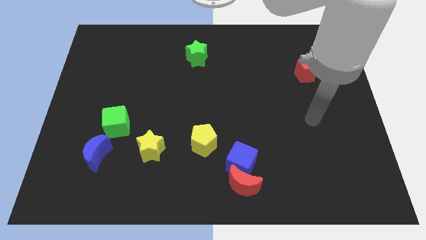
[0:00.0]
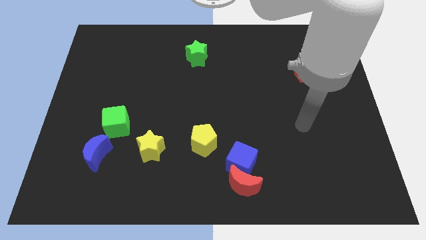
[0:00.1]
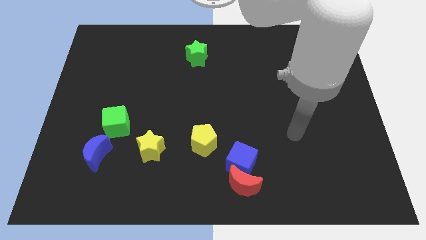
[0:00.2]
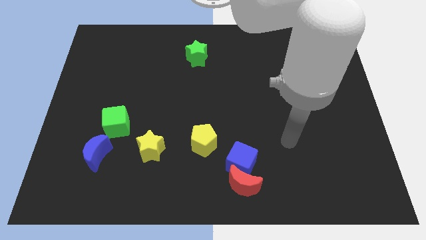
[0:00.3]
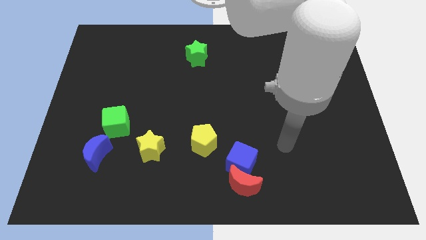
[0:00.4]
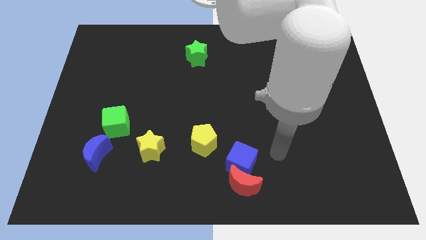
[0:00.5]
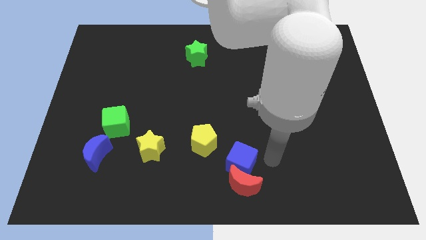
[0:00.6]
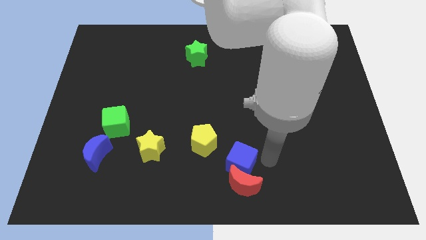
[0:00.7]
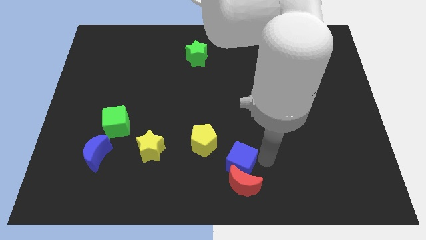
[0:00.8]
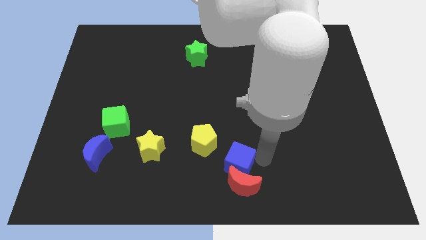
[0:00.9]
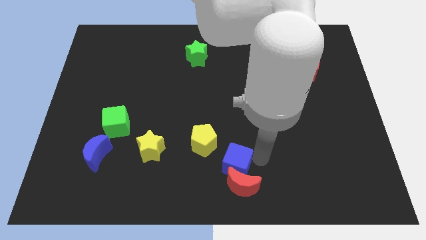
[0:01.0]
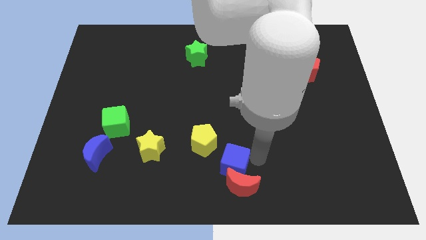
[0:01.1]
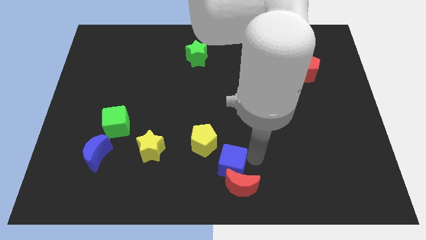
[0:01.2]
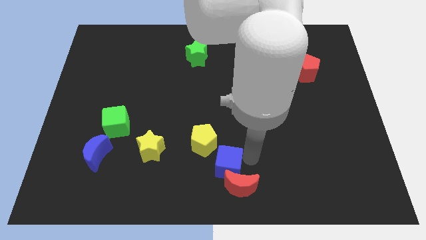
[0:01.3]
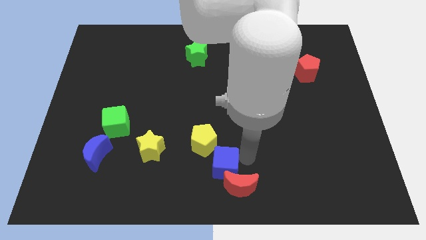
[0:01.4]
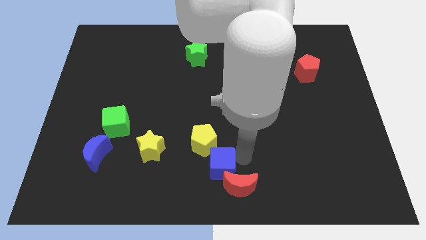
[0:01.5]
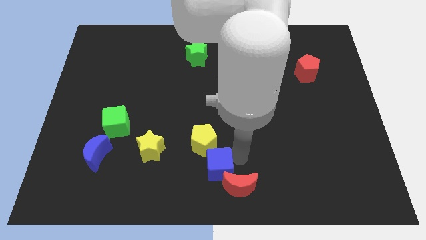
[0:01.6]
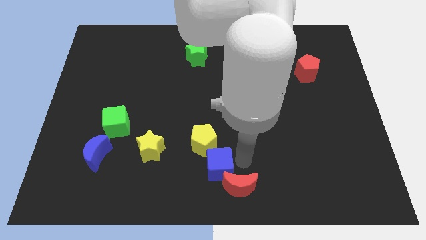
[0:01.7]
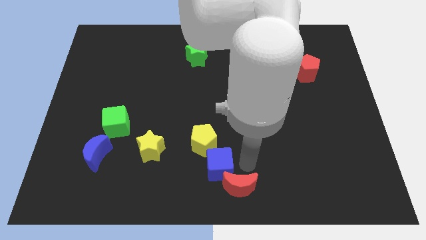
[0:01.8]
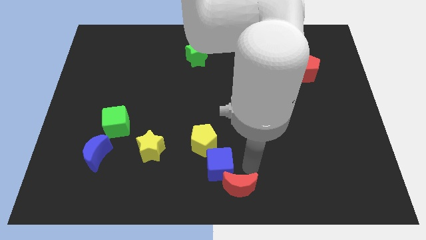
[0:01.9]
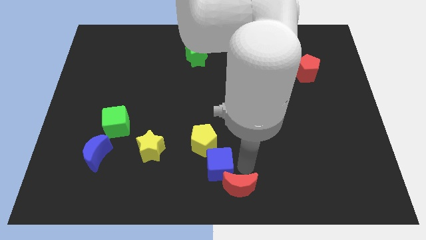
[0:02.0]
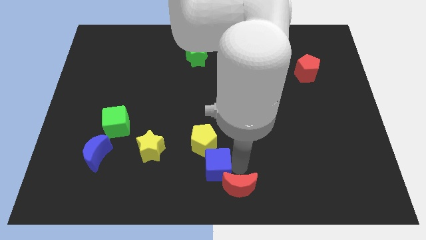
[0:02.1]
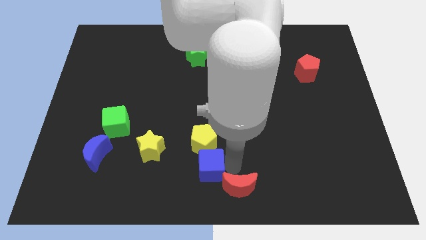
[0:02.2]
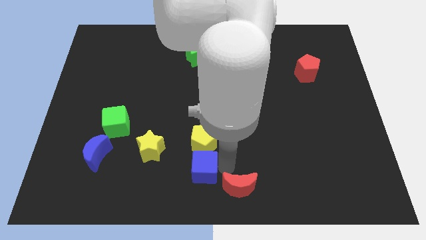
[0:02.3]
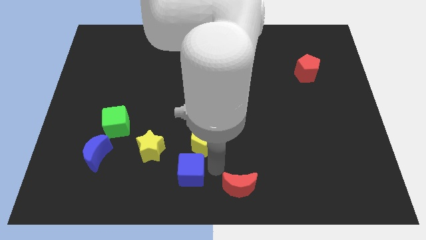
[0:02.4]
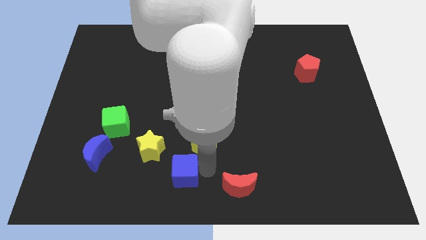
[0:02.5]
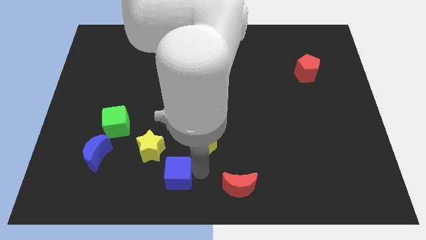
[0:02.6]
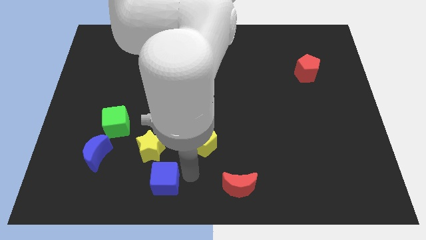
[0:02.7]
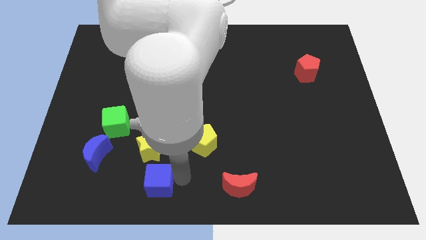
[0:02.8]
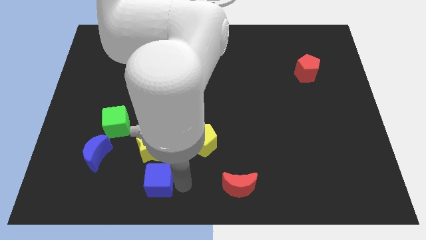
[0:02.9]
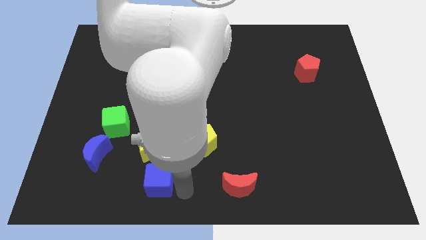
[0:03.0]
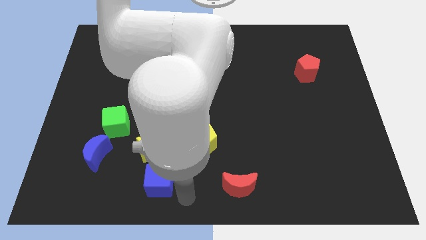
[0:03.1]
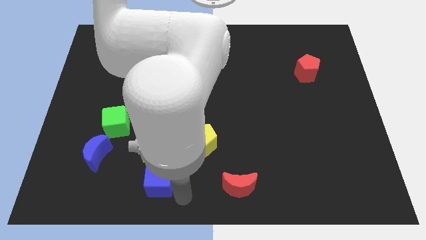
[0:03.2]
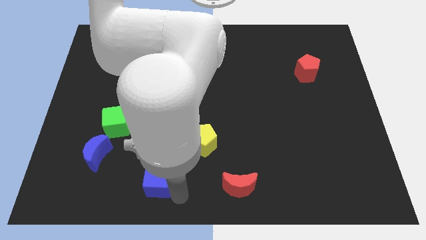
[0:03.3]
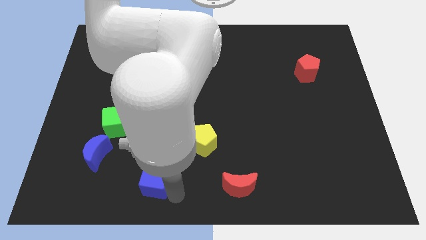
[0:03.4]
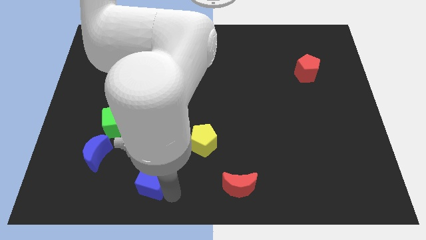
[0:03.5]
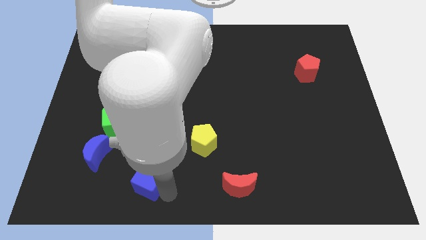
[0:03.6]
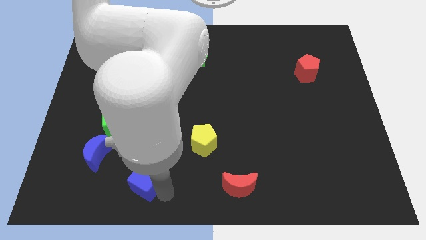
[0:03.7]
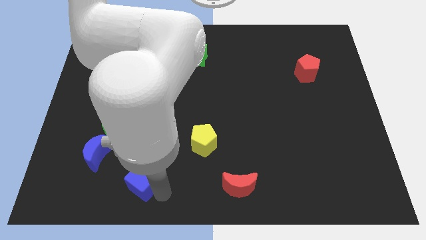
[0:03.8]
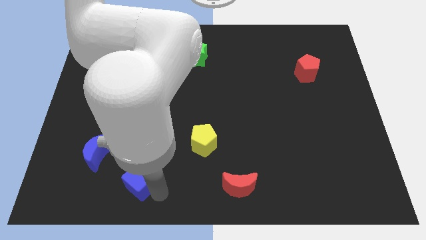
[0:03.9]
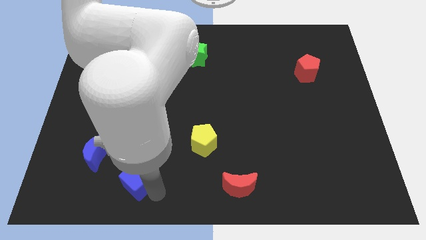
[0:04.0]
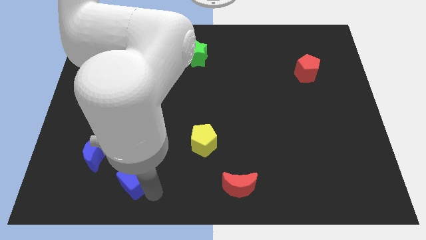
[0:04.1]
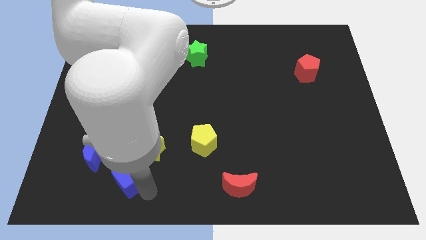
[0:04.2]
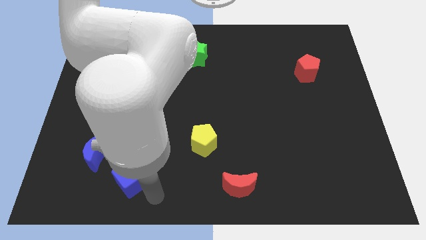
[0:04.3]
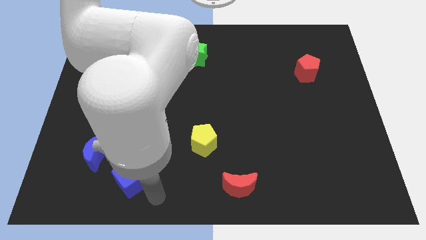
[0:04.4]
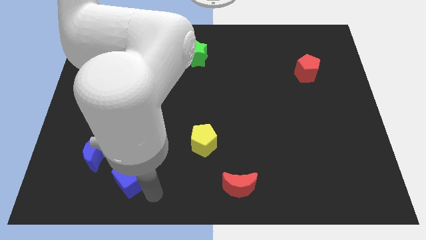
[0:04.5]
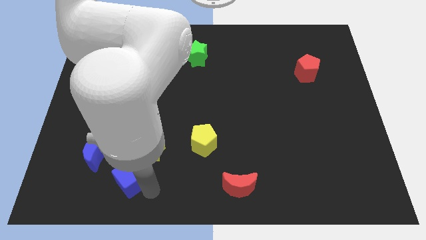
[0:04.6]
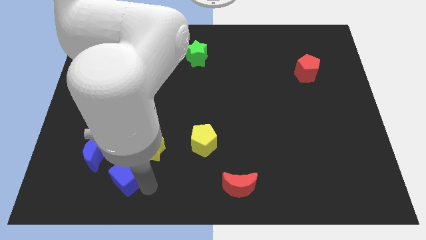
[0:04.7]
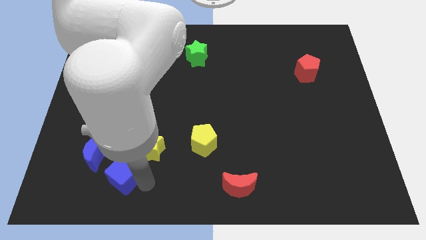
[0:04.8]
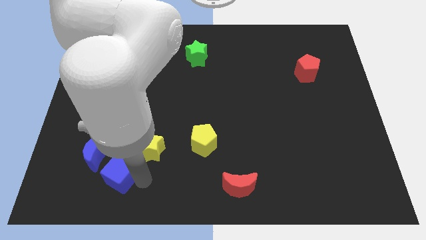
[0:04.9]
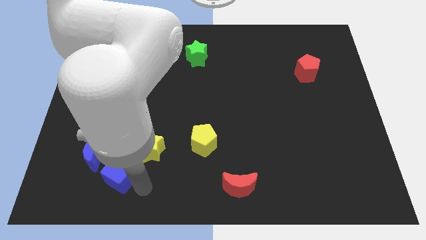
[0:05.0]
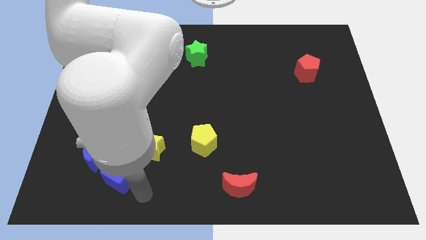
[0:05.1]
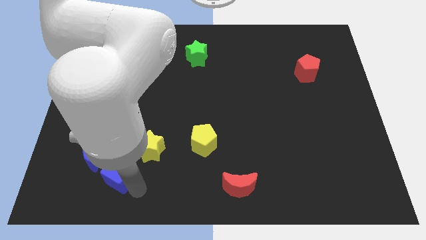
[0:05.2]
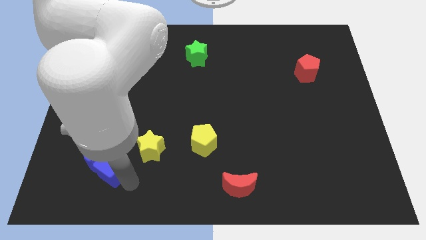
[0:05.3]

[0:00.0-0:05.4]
move the blue cube towards the blue moon

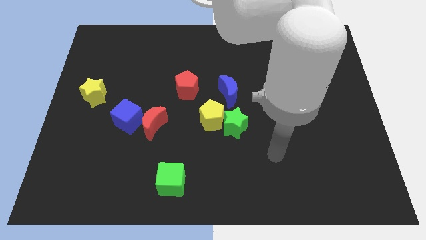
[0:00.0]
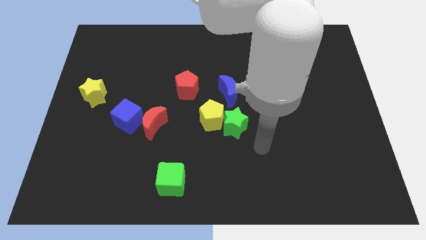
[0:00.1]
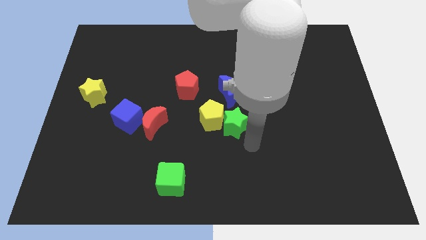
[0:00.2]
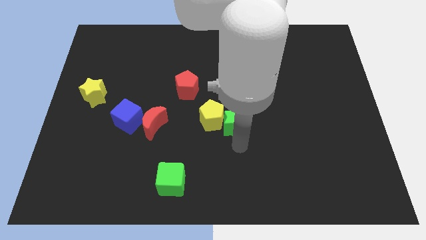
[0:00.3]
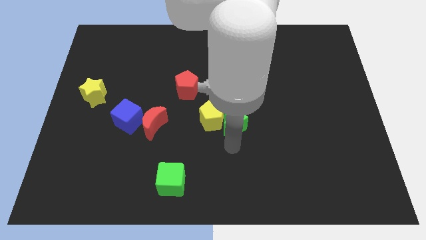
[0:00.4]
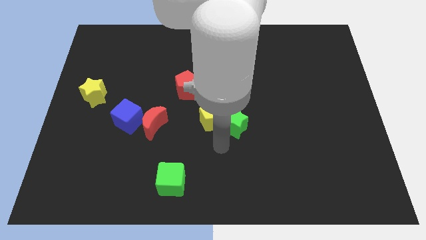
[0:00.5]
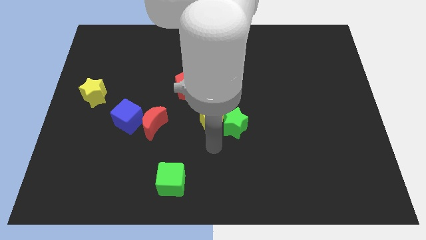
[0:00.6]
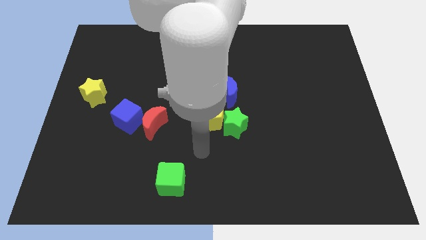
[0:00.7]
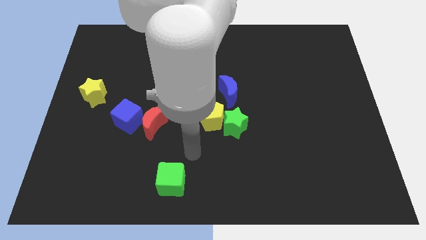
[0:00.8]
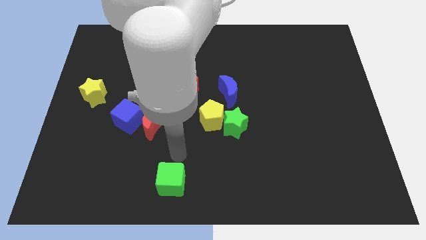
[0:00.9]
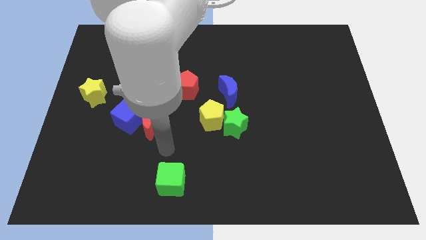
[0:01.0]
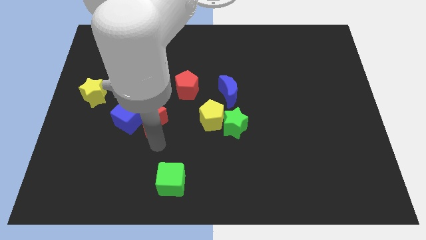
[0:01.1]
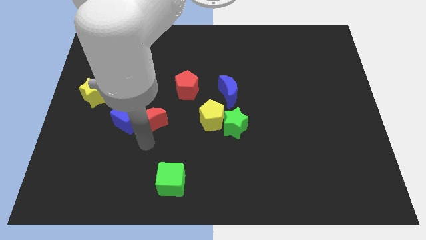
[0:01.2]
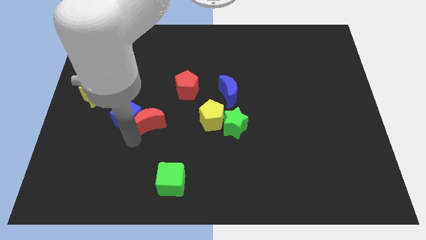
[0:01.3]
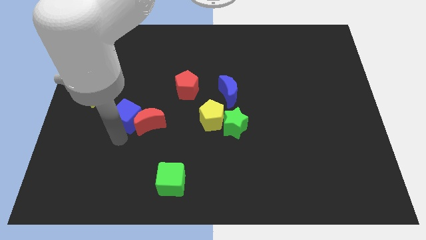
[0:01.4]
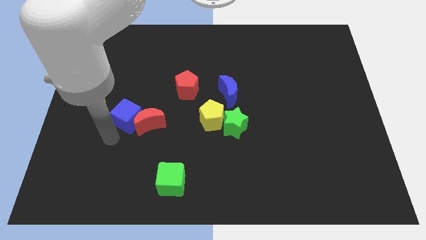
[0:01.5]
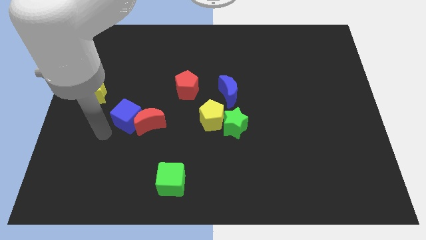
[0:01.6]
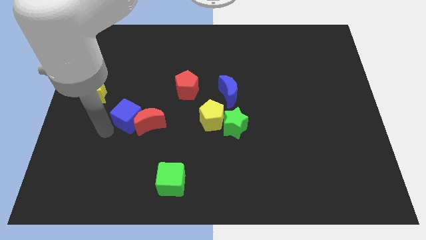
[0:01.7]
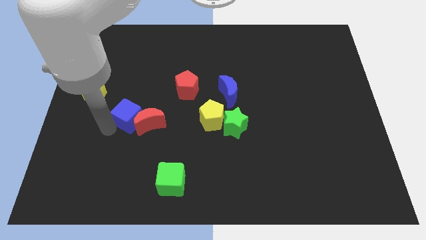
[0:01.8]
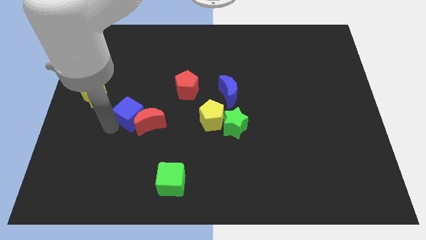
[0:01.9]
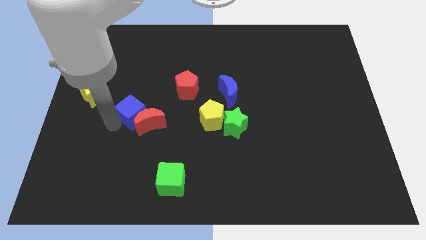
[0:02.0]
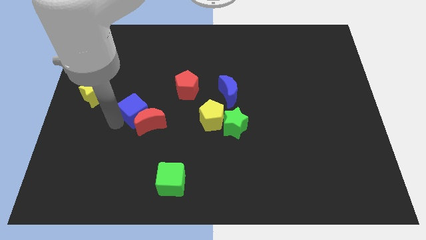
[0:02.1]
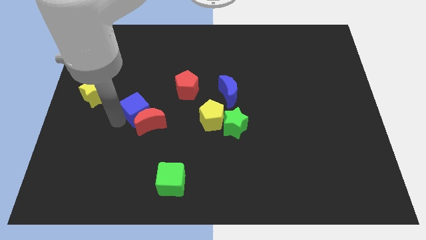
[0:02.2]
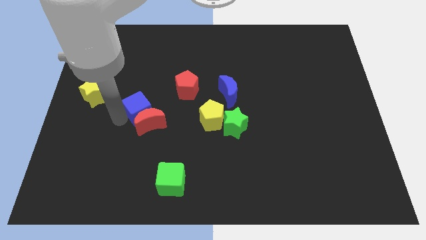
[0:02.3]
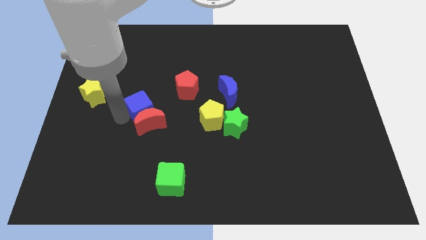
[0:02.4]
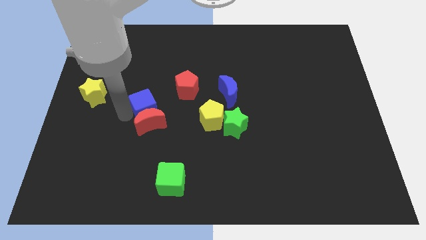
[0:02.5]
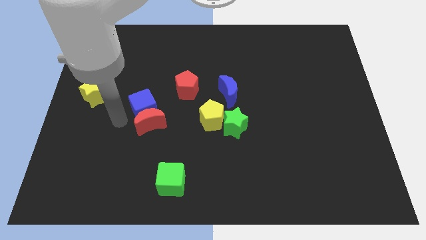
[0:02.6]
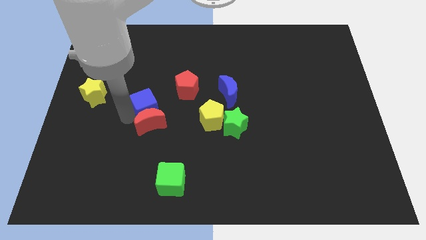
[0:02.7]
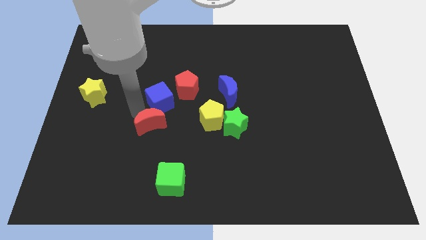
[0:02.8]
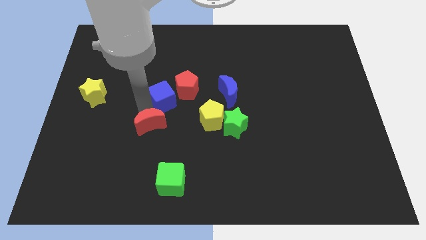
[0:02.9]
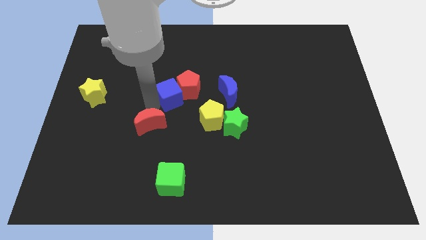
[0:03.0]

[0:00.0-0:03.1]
push the blue cube to the red pentagon
